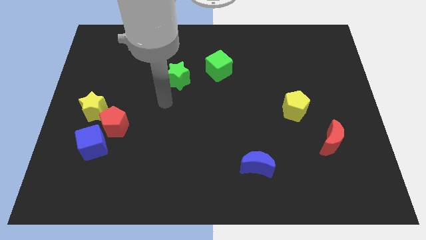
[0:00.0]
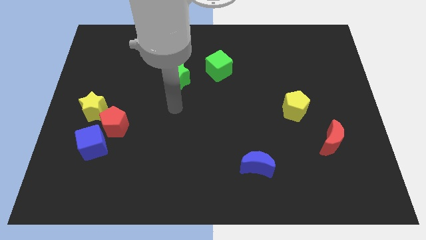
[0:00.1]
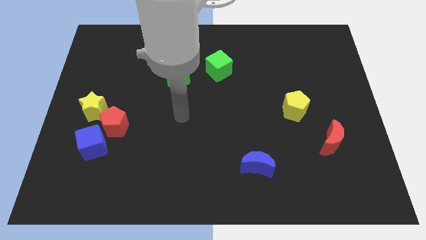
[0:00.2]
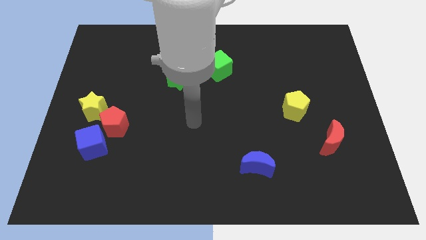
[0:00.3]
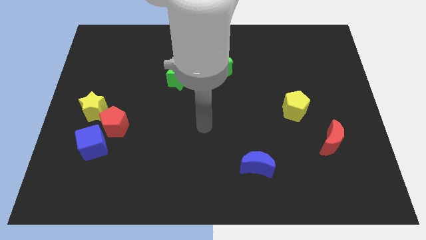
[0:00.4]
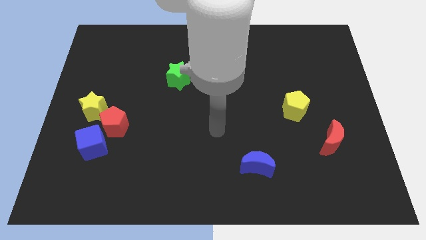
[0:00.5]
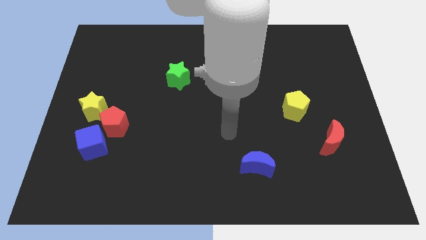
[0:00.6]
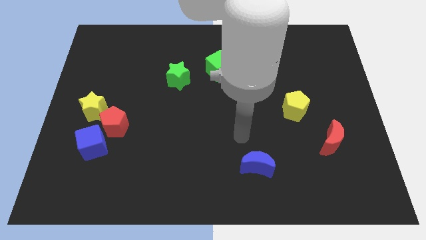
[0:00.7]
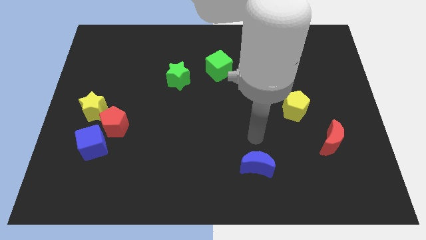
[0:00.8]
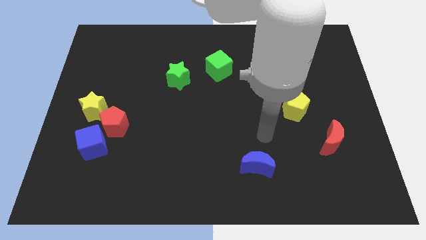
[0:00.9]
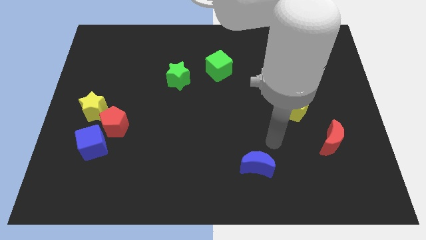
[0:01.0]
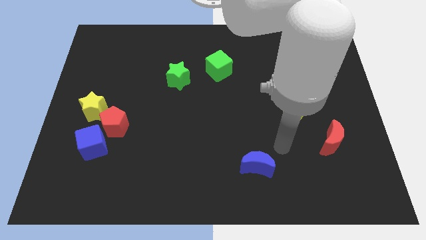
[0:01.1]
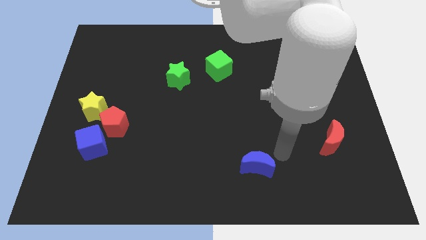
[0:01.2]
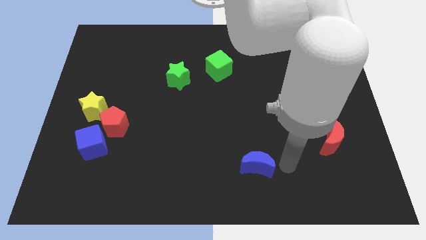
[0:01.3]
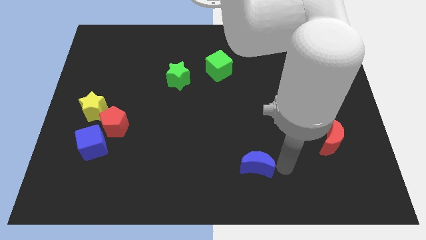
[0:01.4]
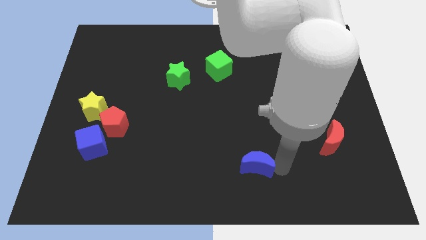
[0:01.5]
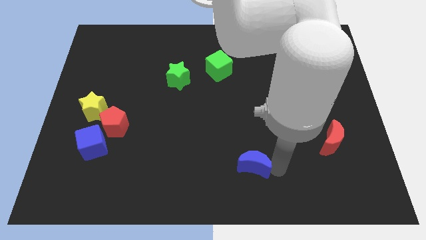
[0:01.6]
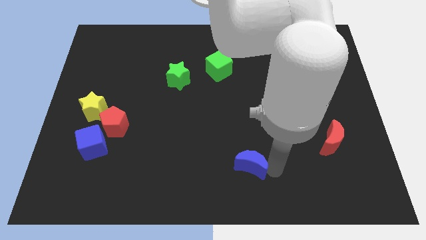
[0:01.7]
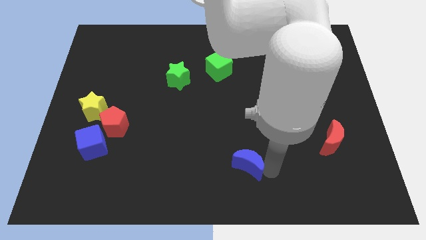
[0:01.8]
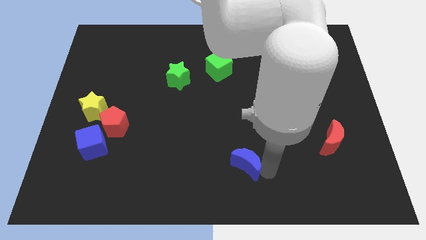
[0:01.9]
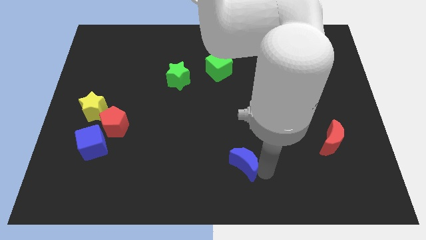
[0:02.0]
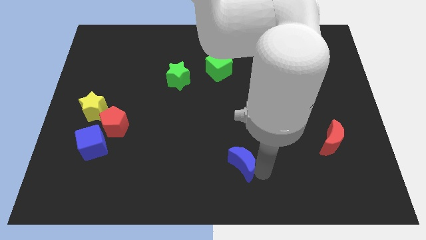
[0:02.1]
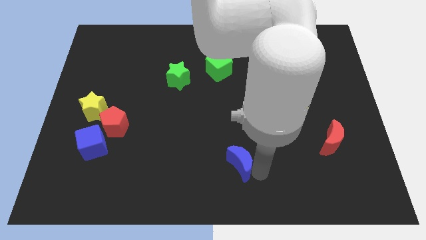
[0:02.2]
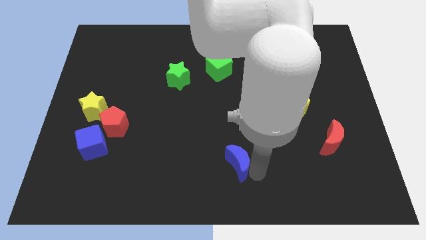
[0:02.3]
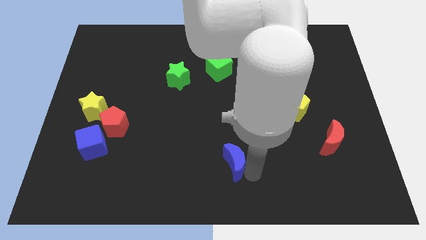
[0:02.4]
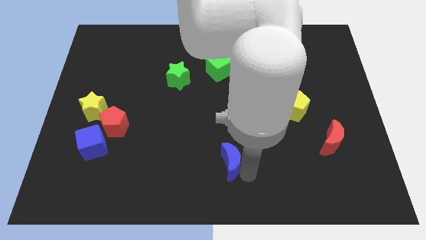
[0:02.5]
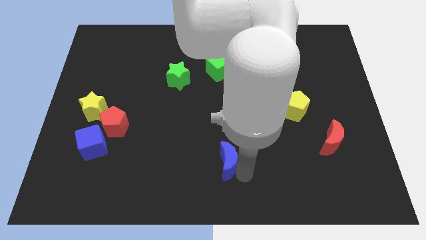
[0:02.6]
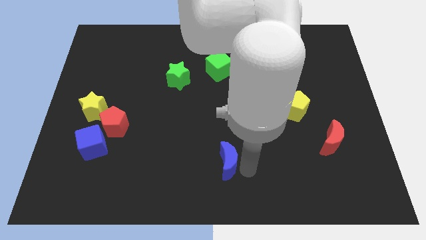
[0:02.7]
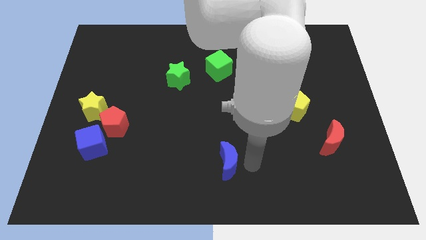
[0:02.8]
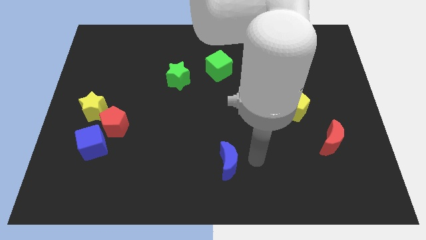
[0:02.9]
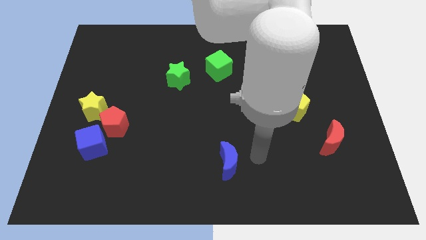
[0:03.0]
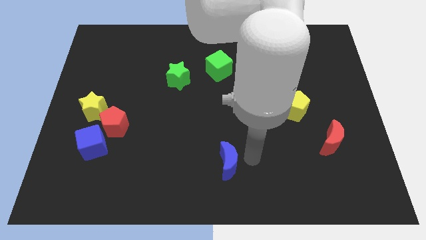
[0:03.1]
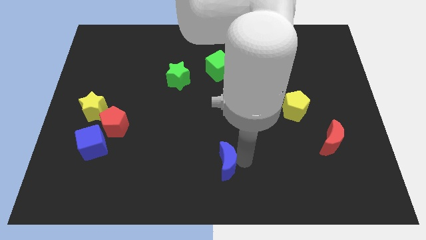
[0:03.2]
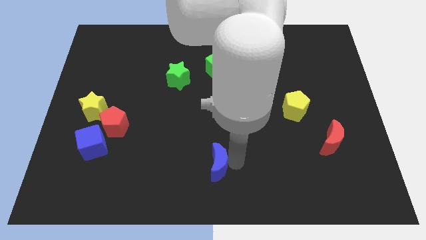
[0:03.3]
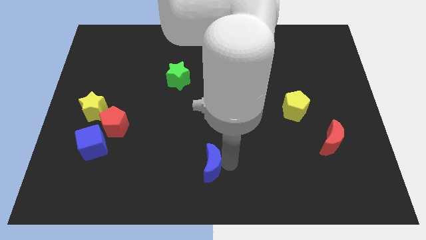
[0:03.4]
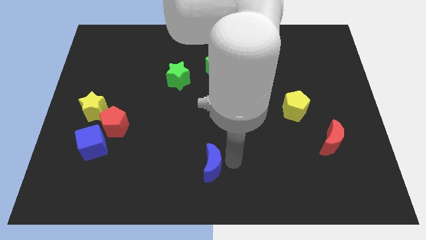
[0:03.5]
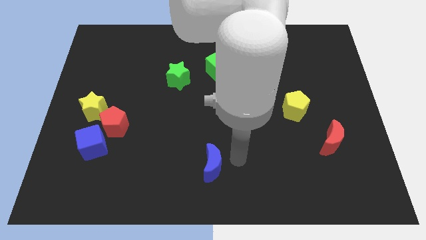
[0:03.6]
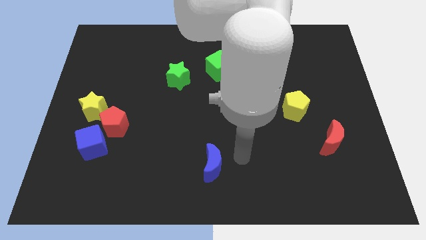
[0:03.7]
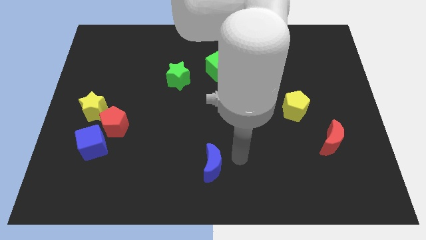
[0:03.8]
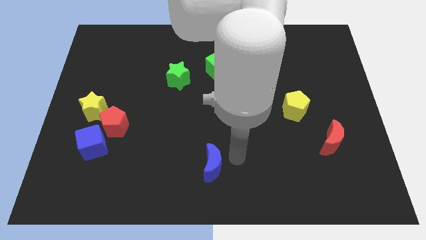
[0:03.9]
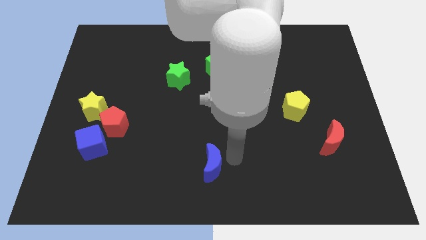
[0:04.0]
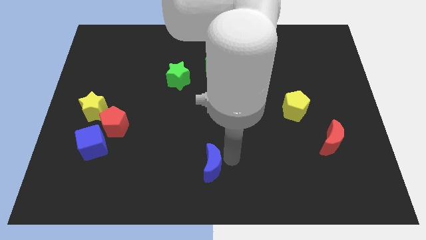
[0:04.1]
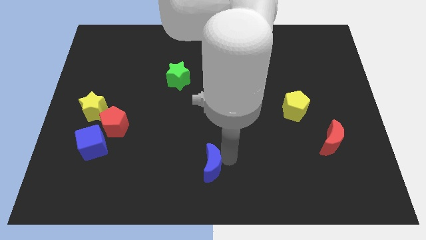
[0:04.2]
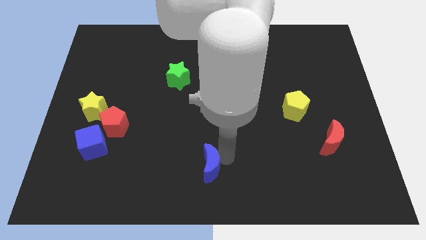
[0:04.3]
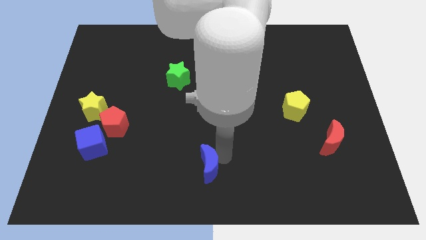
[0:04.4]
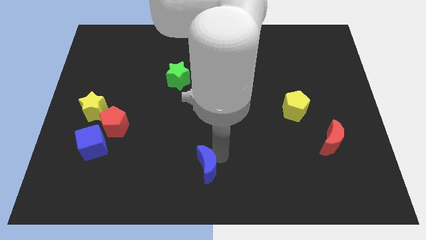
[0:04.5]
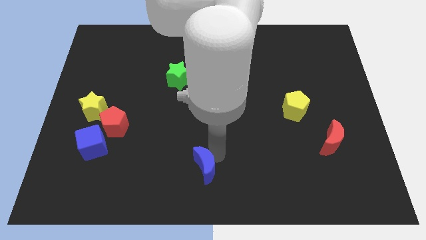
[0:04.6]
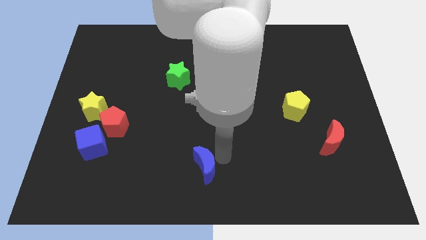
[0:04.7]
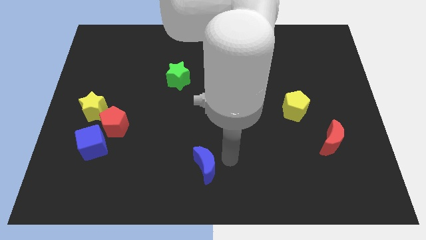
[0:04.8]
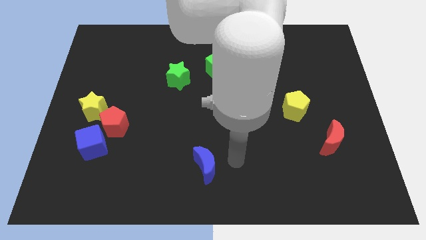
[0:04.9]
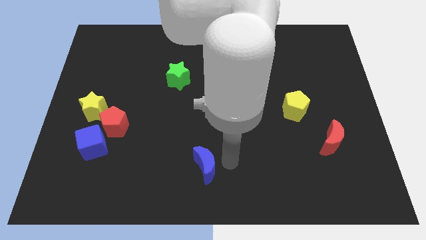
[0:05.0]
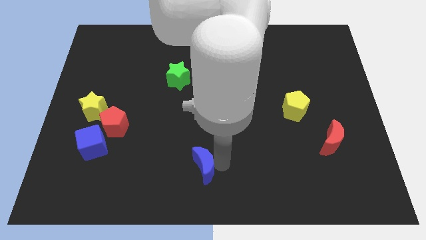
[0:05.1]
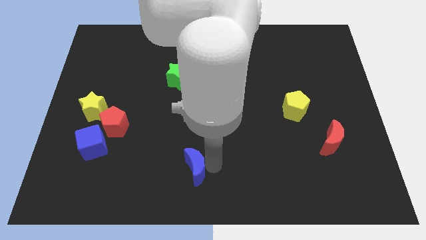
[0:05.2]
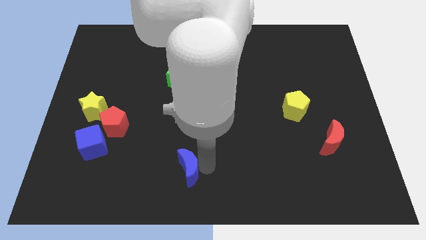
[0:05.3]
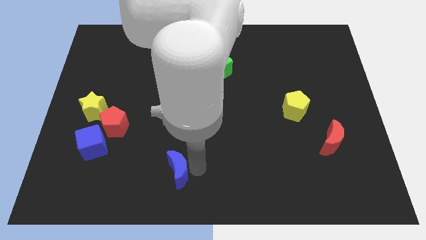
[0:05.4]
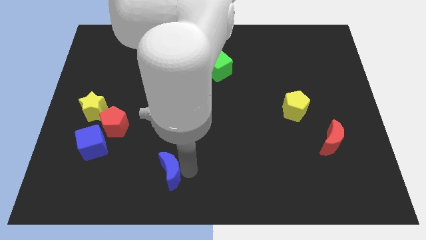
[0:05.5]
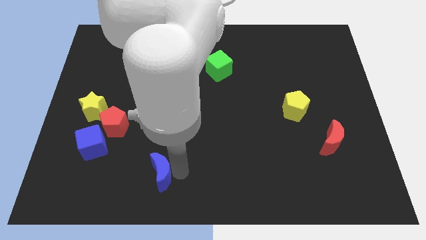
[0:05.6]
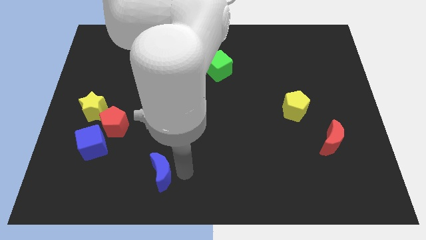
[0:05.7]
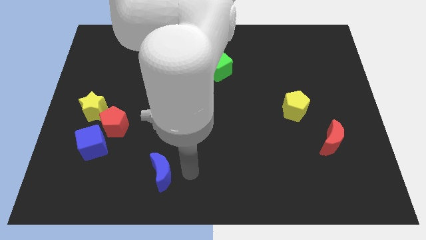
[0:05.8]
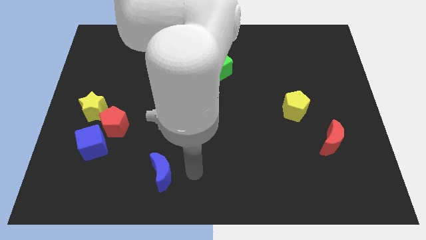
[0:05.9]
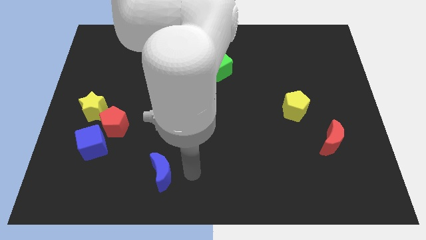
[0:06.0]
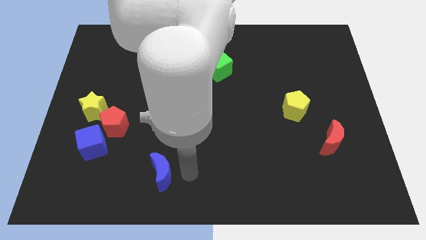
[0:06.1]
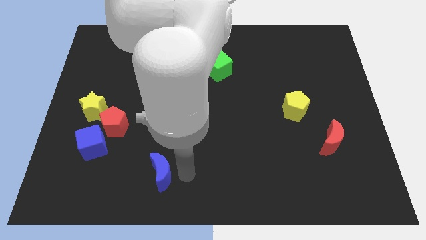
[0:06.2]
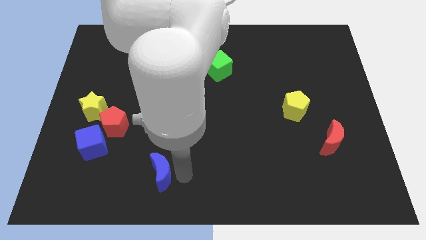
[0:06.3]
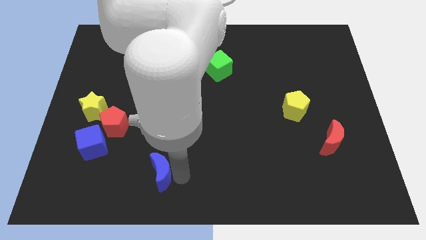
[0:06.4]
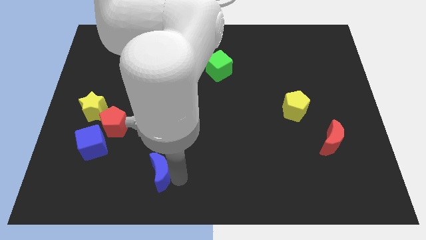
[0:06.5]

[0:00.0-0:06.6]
move the blue moon left

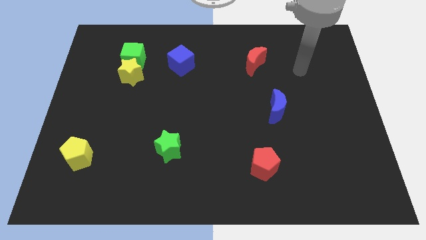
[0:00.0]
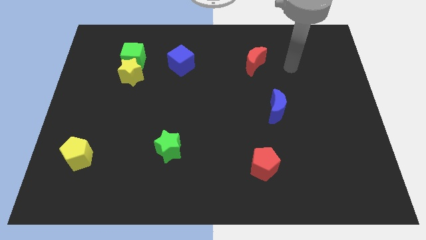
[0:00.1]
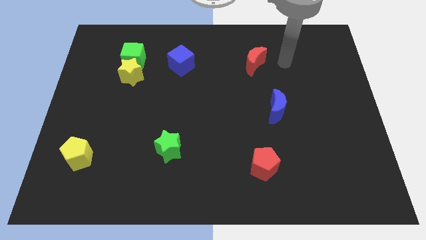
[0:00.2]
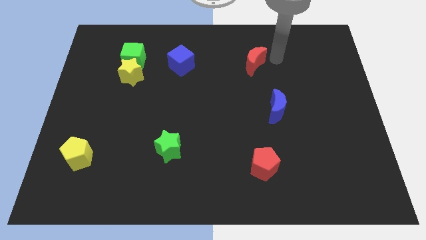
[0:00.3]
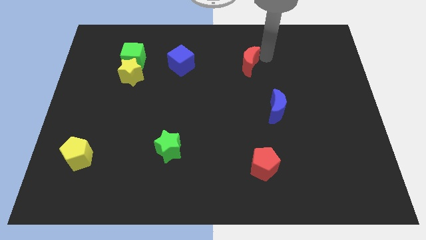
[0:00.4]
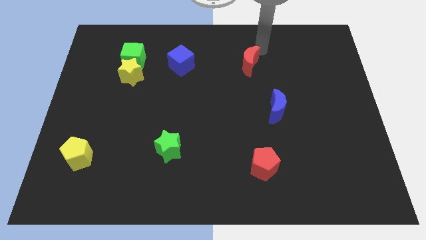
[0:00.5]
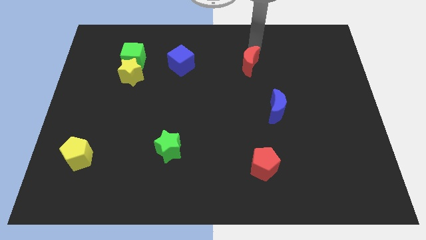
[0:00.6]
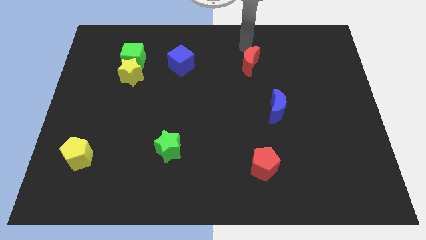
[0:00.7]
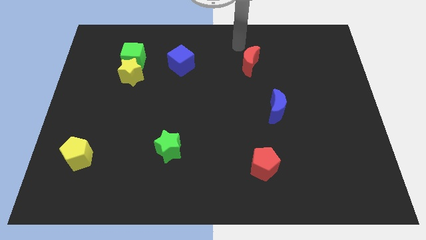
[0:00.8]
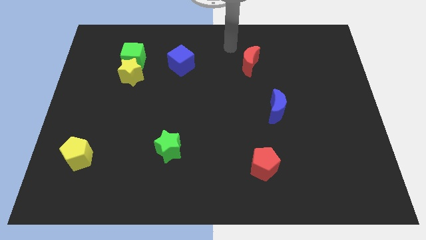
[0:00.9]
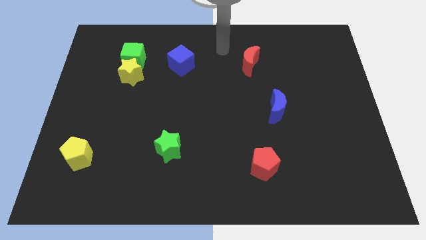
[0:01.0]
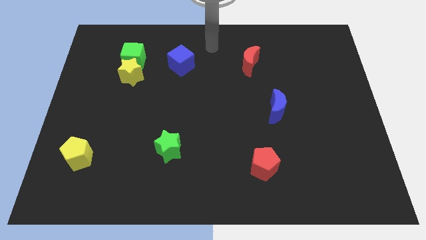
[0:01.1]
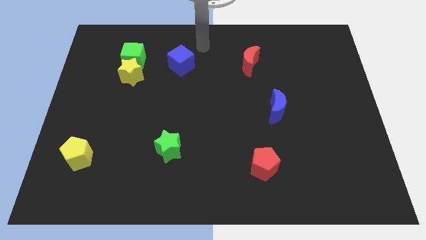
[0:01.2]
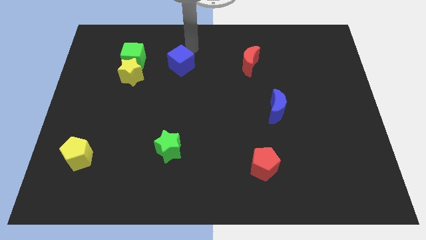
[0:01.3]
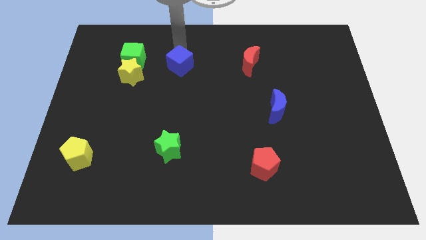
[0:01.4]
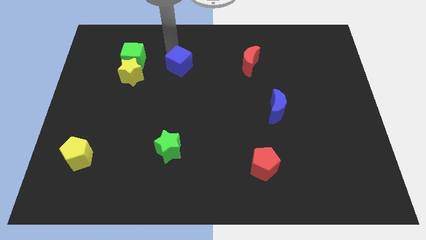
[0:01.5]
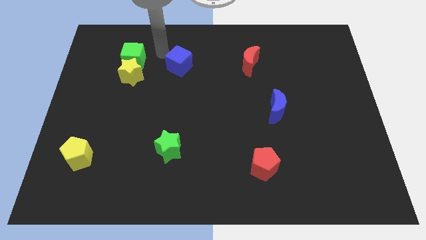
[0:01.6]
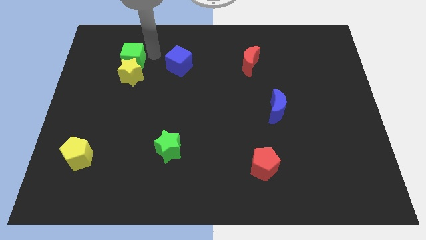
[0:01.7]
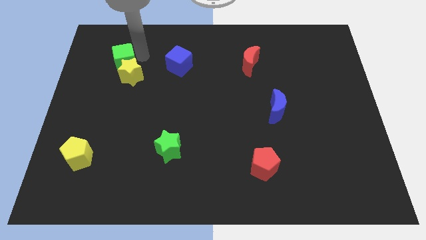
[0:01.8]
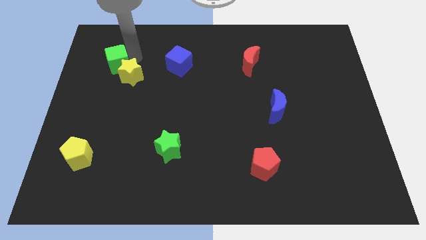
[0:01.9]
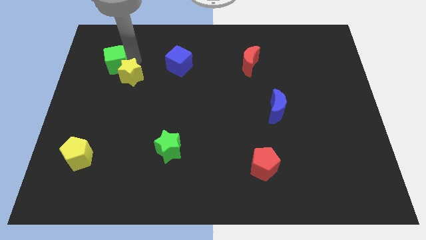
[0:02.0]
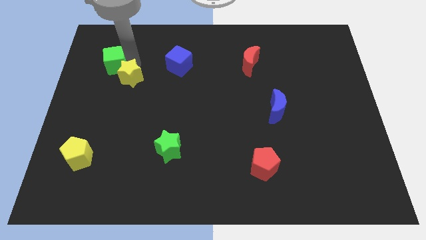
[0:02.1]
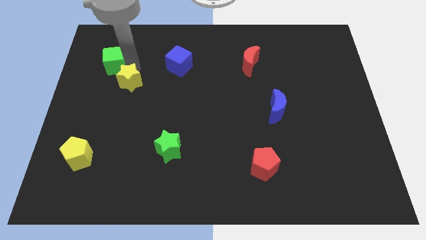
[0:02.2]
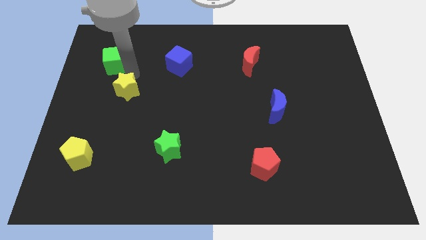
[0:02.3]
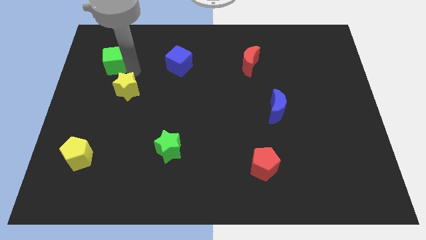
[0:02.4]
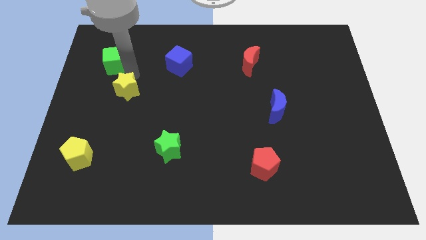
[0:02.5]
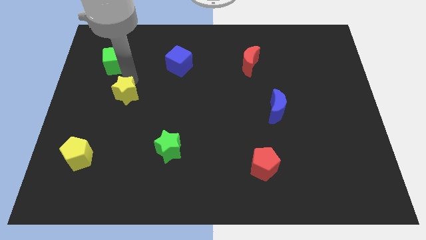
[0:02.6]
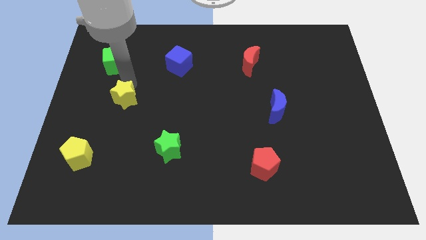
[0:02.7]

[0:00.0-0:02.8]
slightly slide the yellow star downwards
